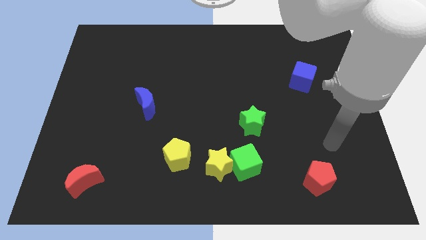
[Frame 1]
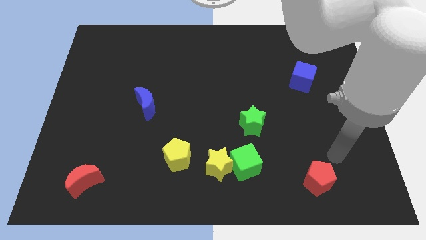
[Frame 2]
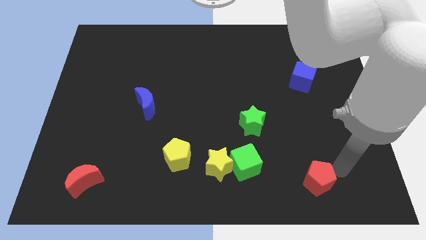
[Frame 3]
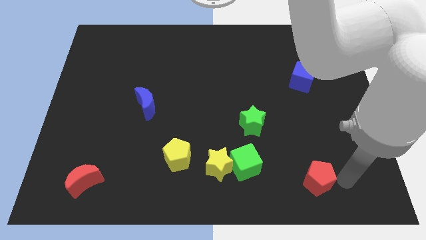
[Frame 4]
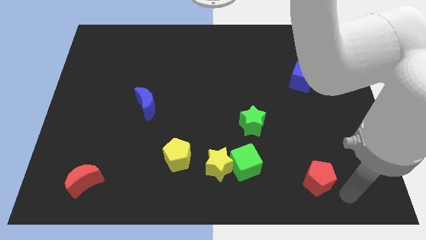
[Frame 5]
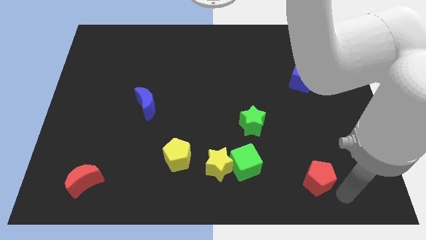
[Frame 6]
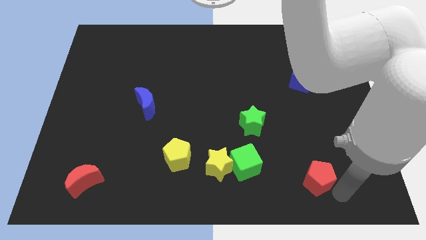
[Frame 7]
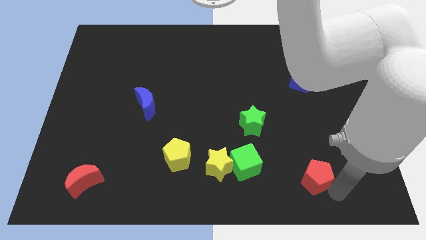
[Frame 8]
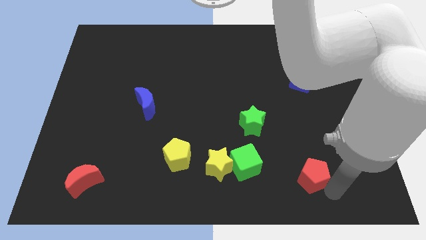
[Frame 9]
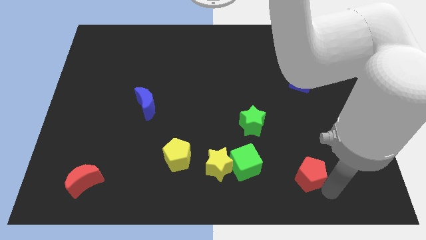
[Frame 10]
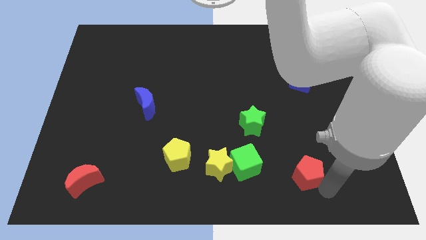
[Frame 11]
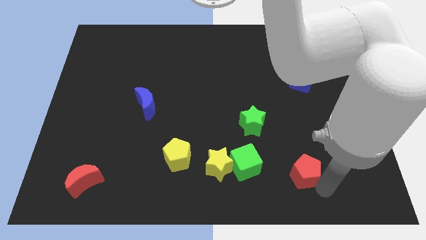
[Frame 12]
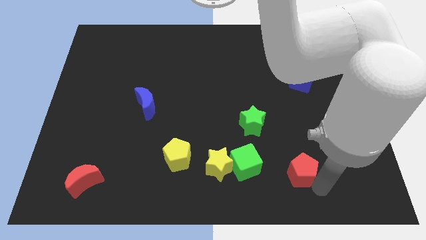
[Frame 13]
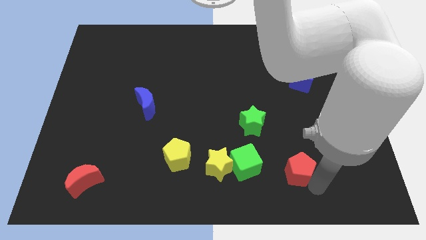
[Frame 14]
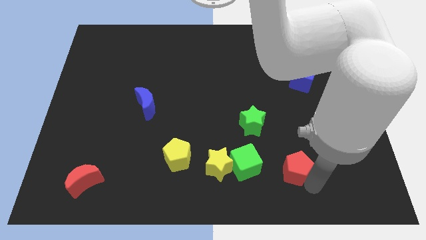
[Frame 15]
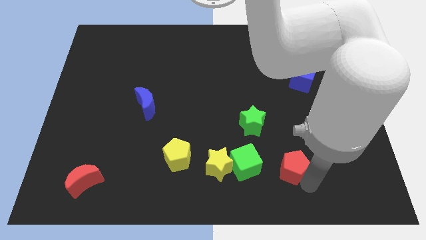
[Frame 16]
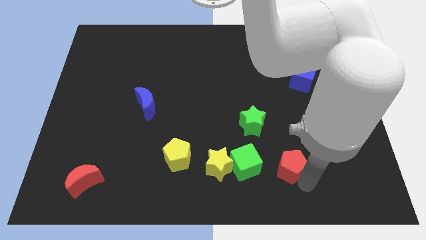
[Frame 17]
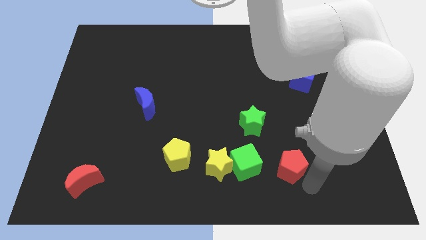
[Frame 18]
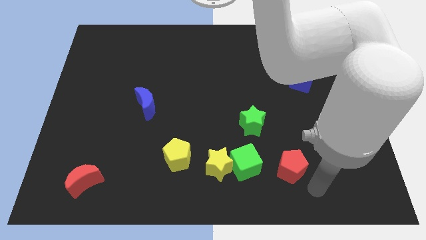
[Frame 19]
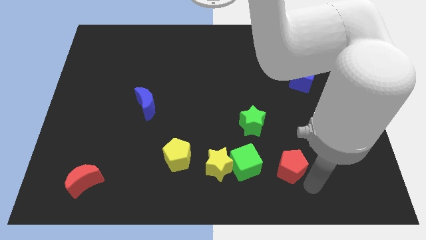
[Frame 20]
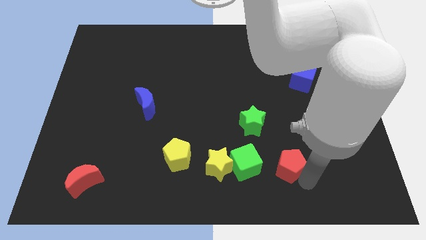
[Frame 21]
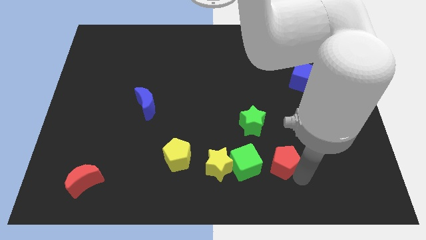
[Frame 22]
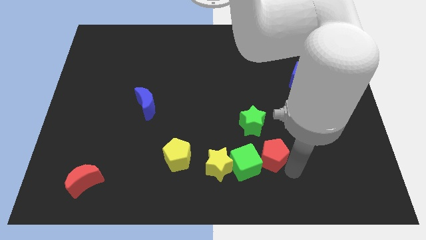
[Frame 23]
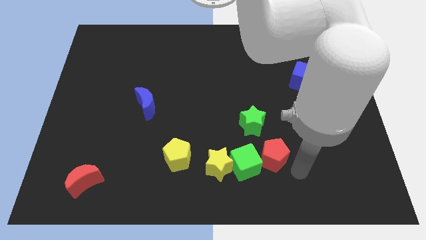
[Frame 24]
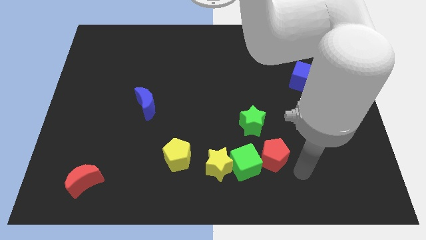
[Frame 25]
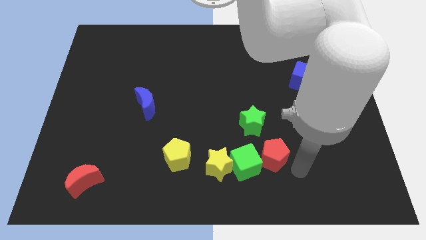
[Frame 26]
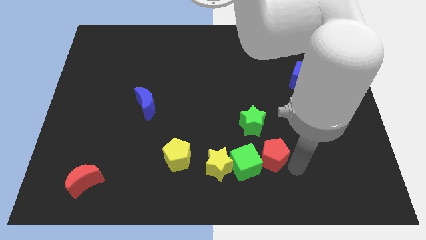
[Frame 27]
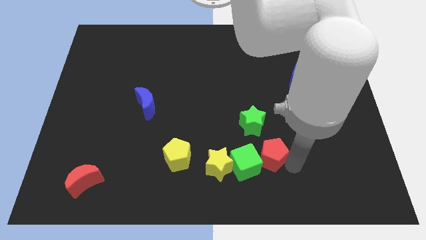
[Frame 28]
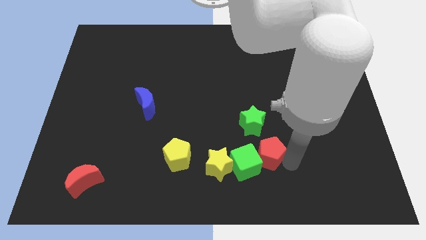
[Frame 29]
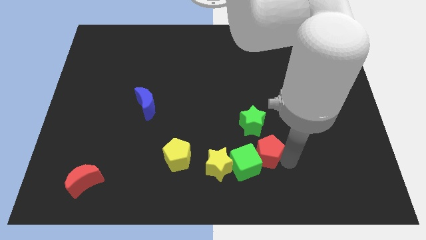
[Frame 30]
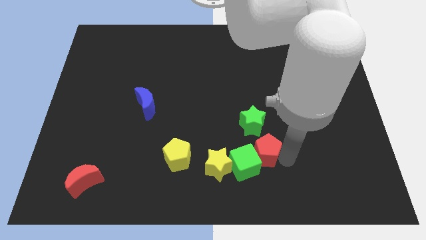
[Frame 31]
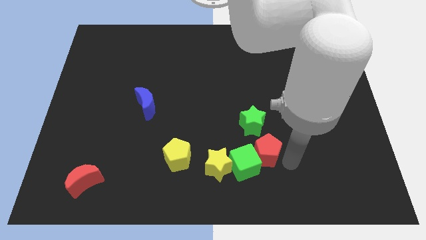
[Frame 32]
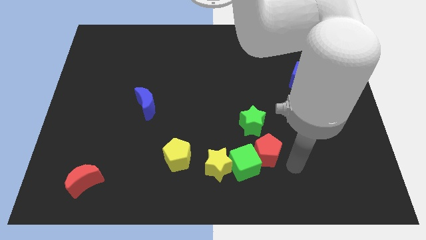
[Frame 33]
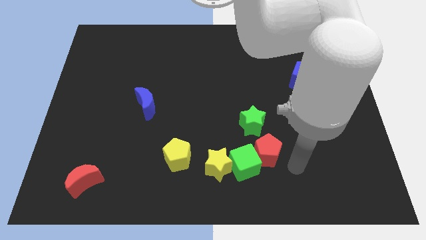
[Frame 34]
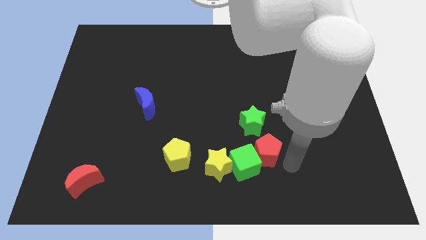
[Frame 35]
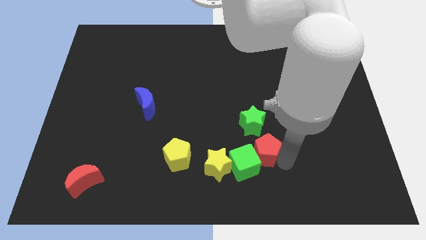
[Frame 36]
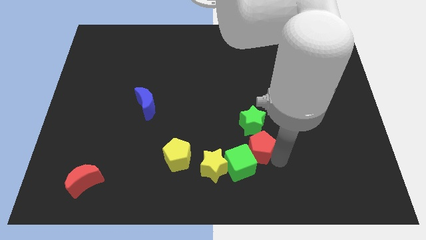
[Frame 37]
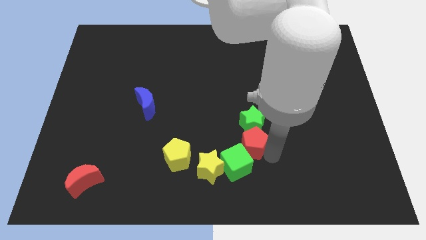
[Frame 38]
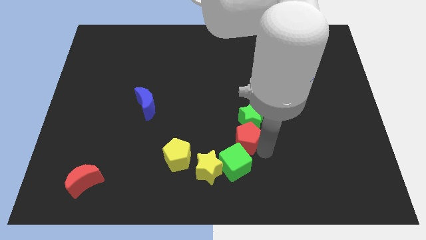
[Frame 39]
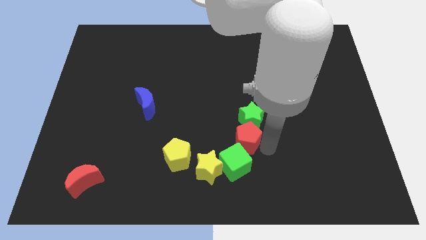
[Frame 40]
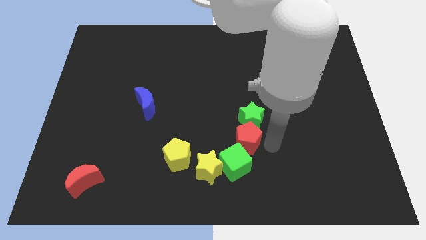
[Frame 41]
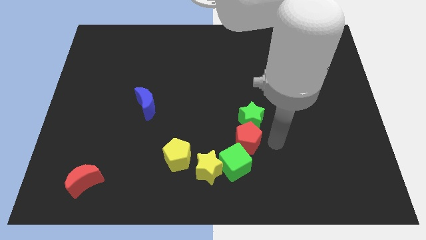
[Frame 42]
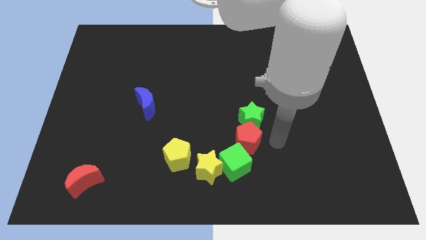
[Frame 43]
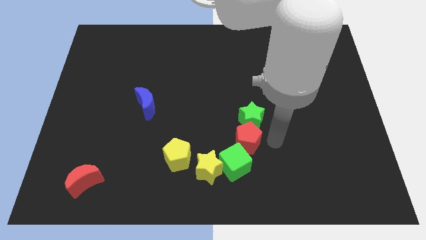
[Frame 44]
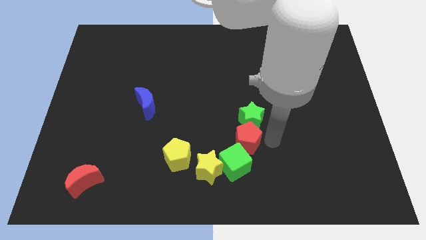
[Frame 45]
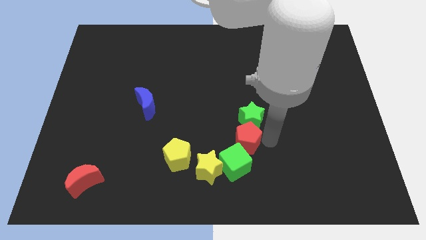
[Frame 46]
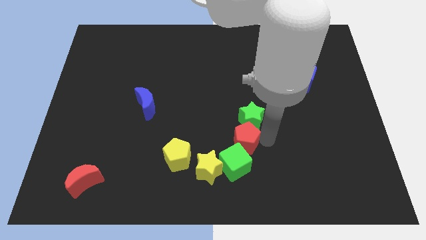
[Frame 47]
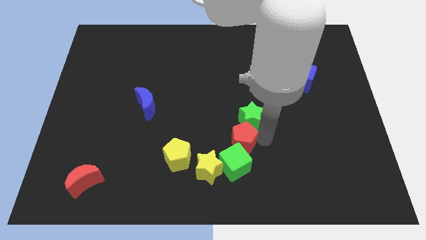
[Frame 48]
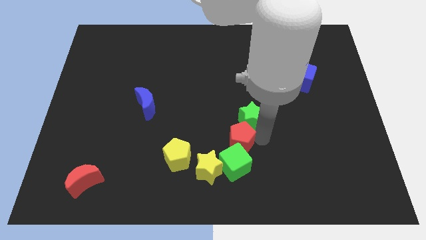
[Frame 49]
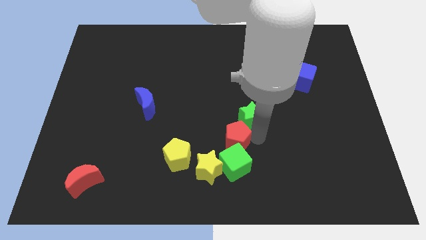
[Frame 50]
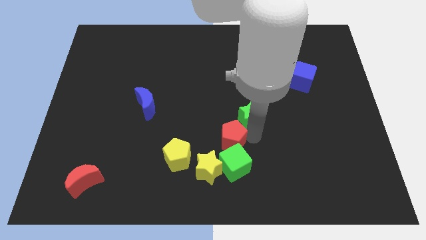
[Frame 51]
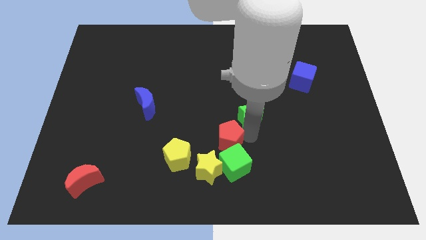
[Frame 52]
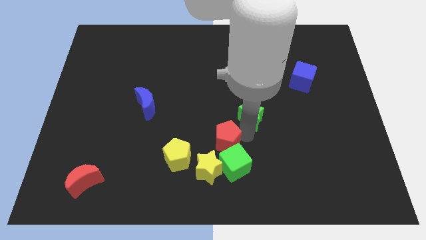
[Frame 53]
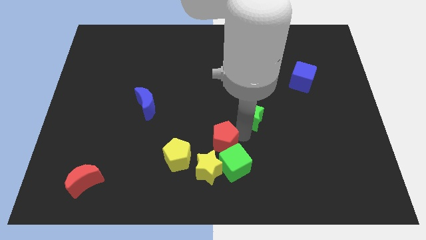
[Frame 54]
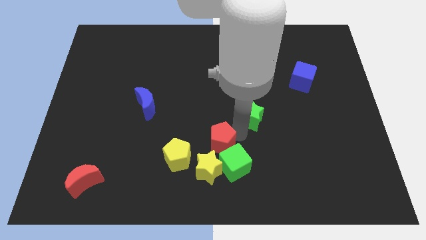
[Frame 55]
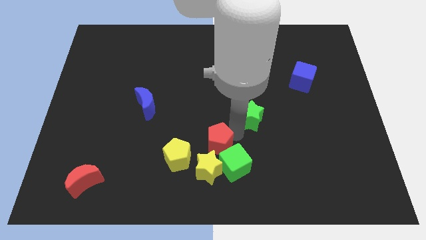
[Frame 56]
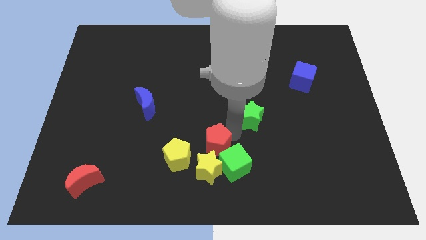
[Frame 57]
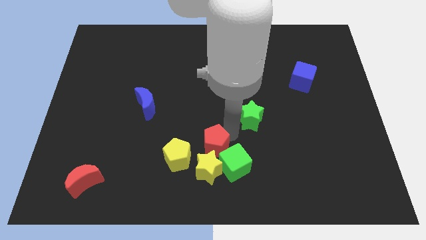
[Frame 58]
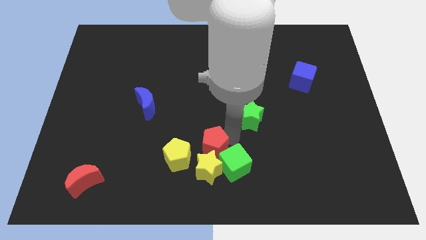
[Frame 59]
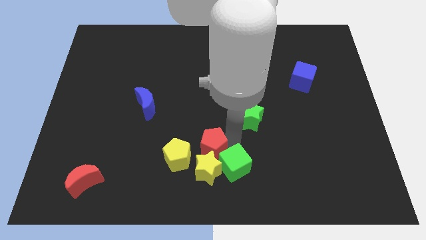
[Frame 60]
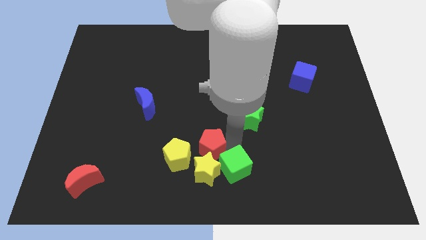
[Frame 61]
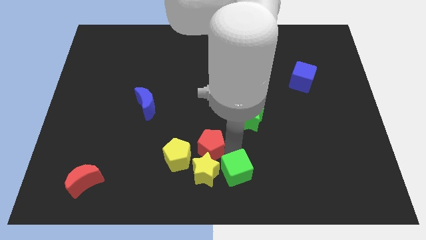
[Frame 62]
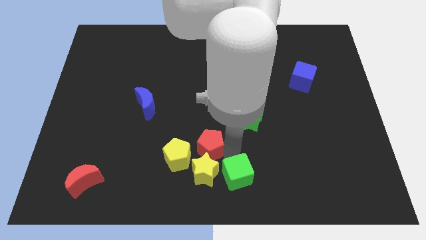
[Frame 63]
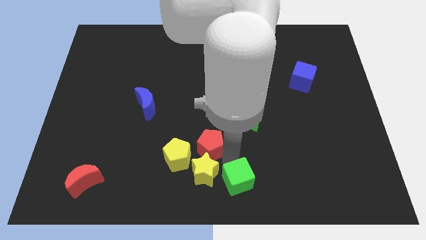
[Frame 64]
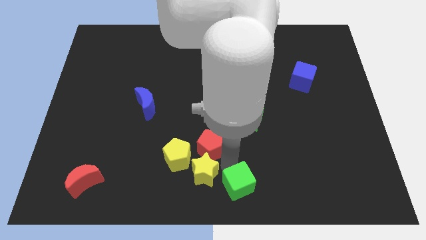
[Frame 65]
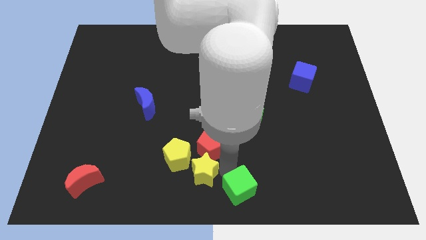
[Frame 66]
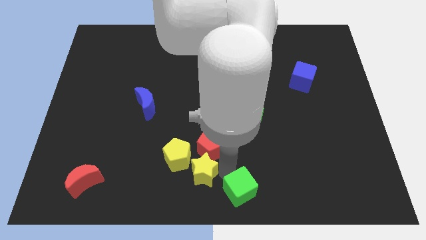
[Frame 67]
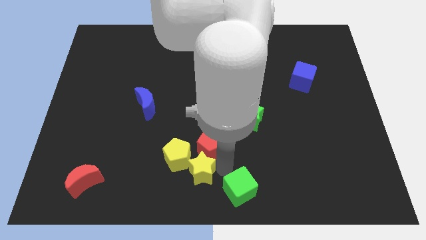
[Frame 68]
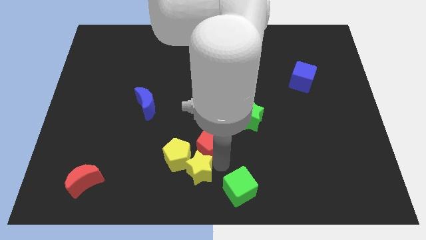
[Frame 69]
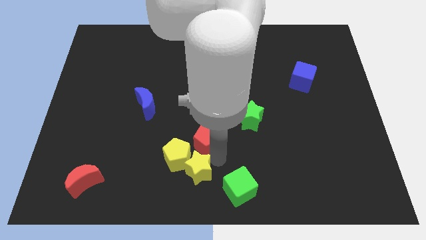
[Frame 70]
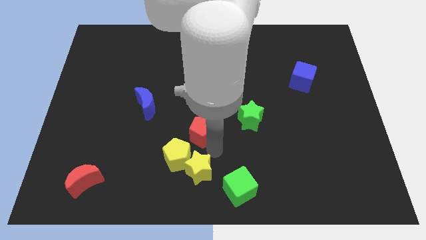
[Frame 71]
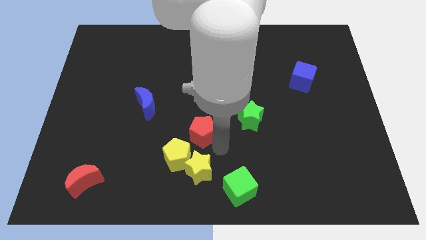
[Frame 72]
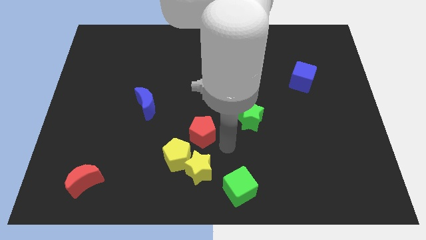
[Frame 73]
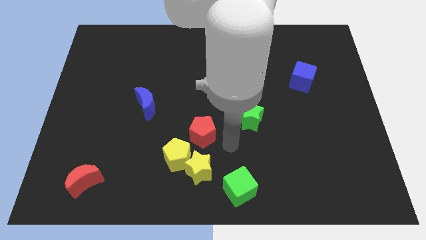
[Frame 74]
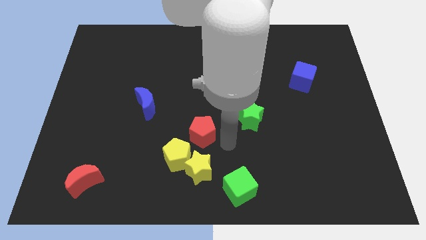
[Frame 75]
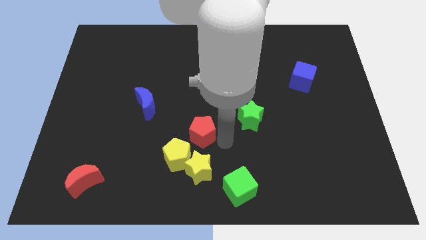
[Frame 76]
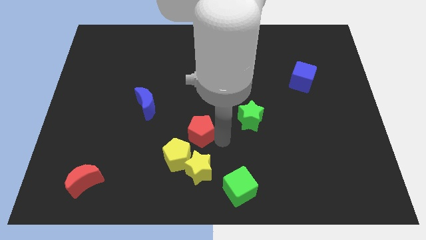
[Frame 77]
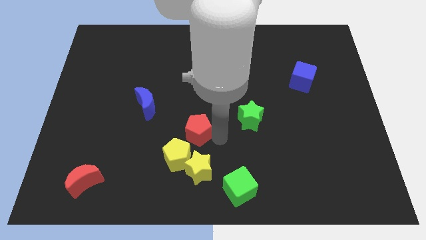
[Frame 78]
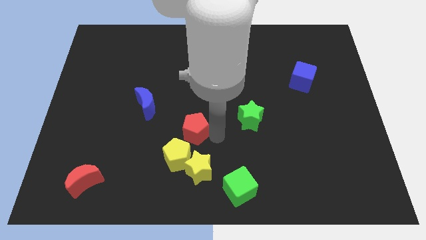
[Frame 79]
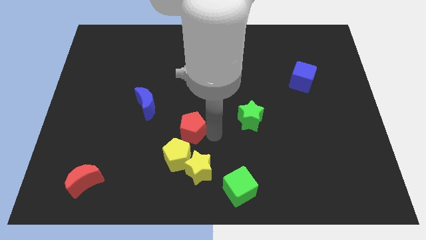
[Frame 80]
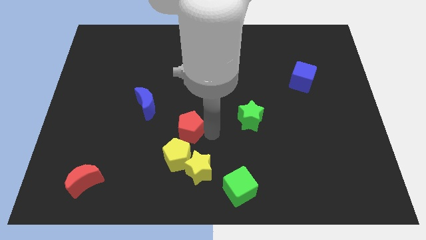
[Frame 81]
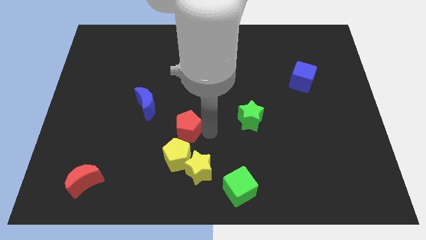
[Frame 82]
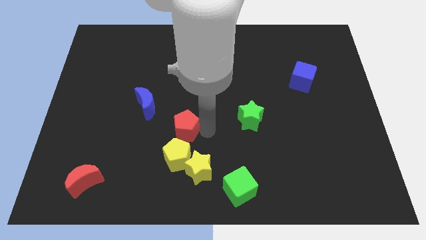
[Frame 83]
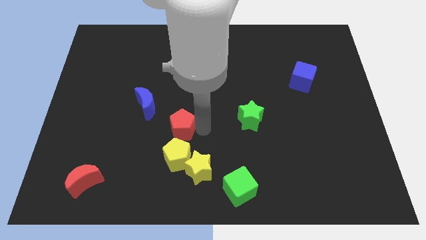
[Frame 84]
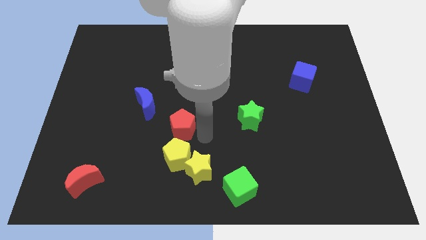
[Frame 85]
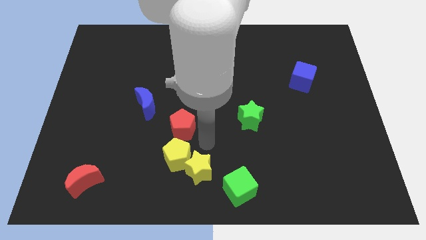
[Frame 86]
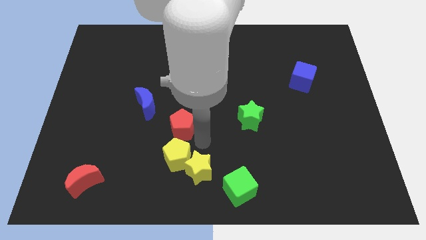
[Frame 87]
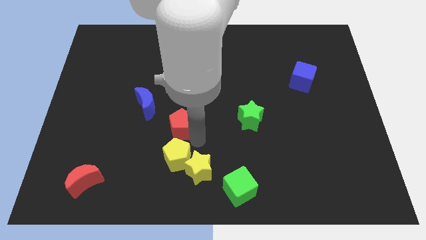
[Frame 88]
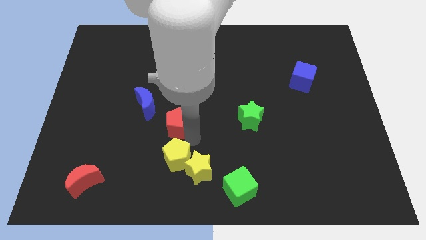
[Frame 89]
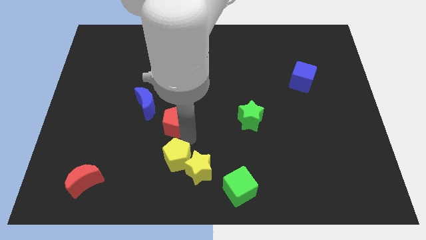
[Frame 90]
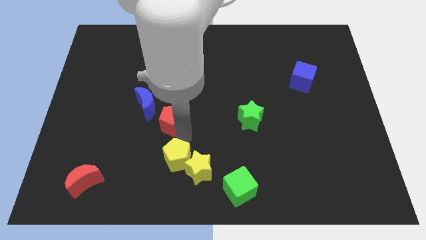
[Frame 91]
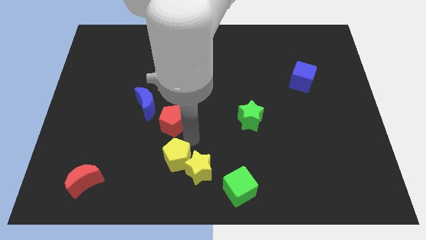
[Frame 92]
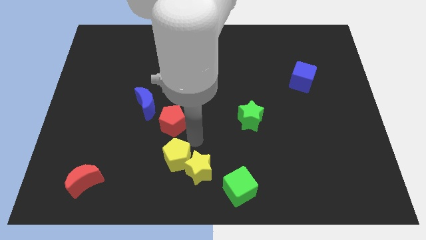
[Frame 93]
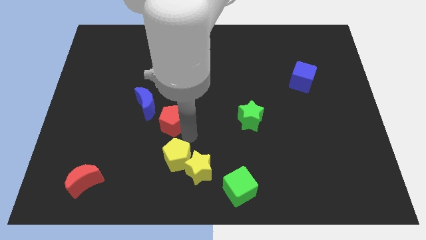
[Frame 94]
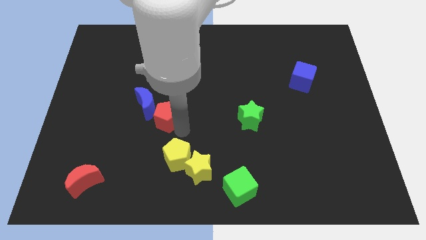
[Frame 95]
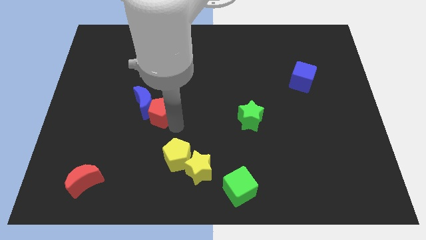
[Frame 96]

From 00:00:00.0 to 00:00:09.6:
put the red pentagon next to the blue moon
